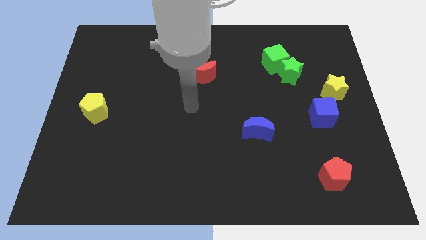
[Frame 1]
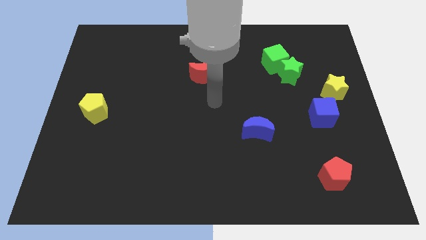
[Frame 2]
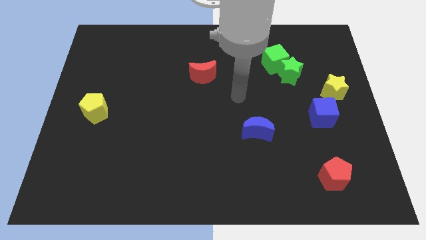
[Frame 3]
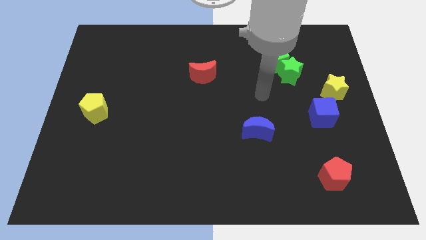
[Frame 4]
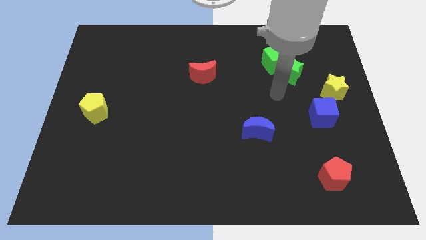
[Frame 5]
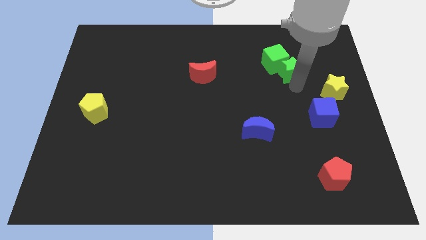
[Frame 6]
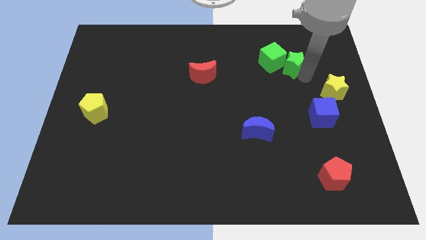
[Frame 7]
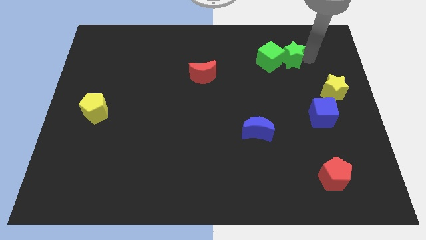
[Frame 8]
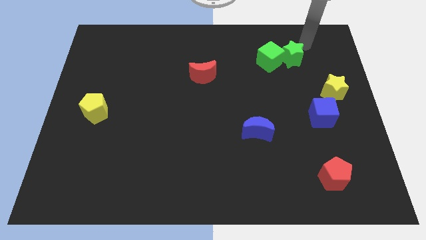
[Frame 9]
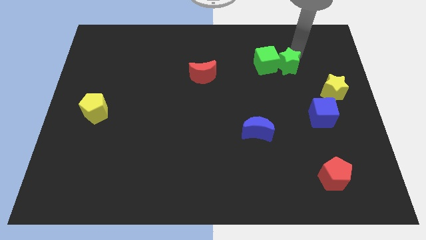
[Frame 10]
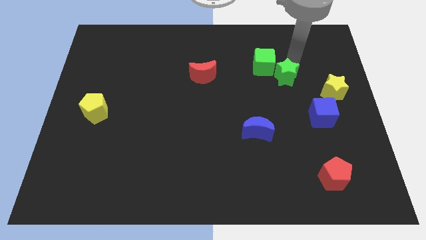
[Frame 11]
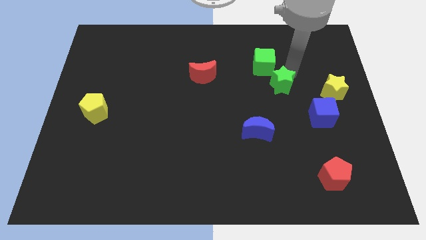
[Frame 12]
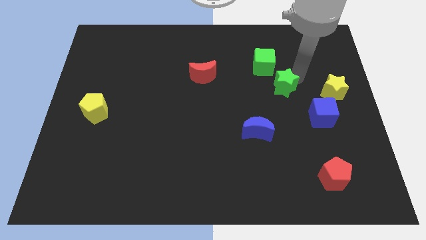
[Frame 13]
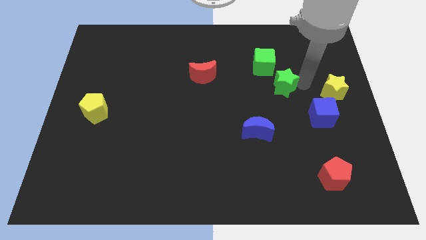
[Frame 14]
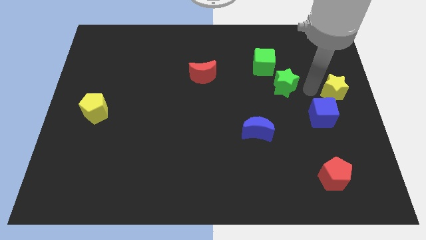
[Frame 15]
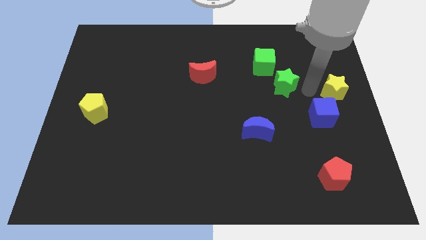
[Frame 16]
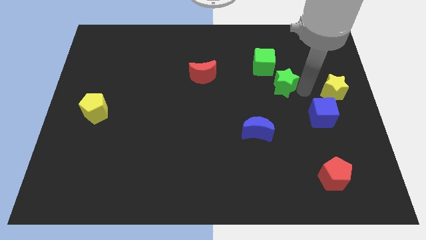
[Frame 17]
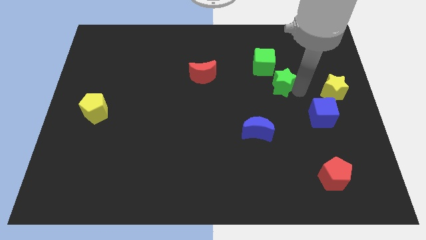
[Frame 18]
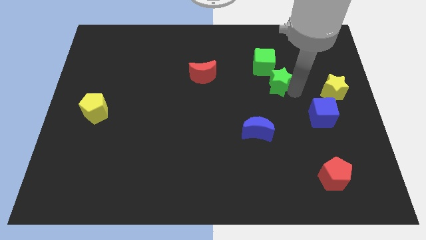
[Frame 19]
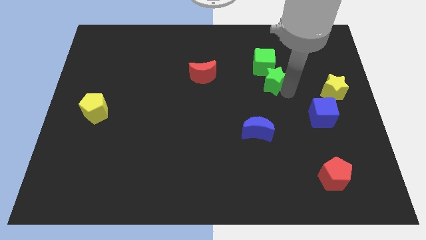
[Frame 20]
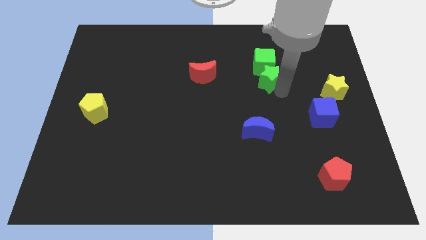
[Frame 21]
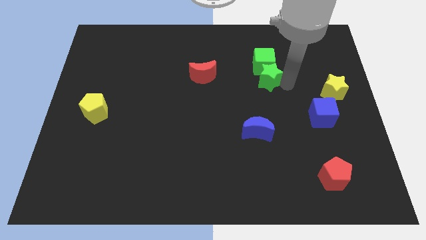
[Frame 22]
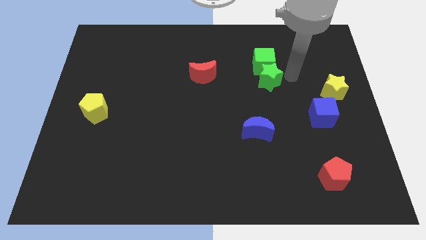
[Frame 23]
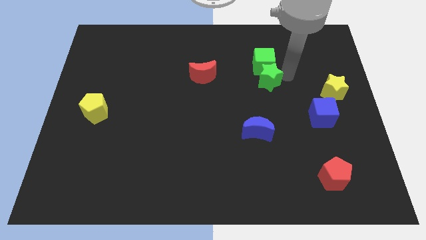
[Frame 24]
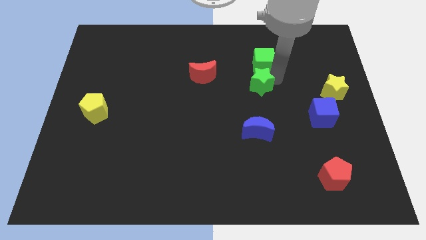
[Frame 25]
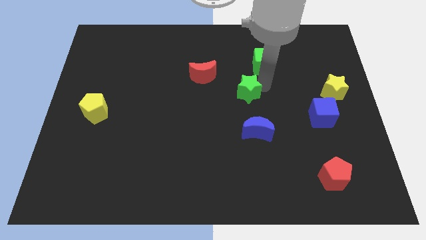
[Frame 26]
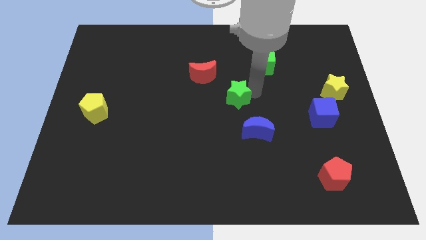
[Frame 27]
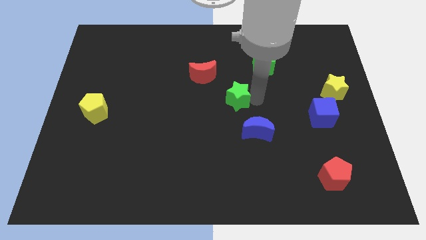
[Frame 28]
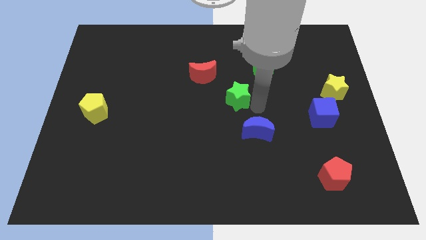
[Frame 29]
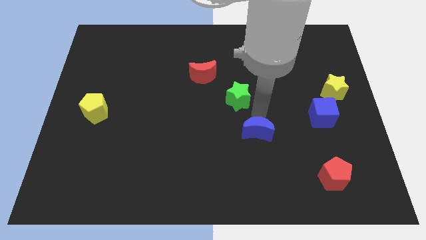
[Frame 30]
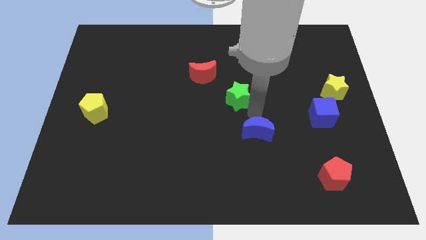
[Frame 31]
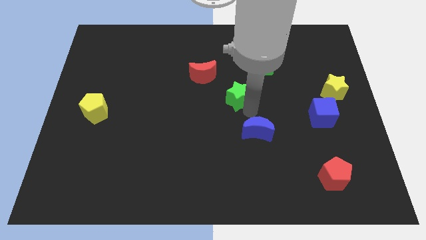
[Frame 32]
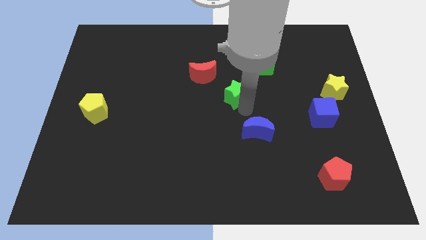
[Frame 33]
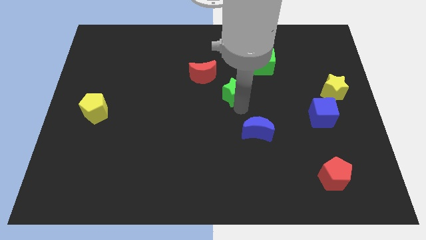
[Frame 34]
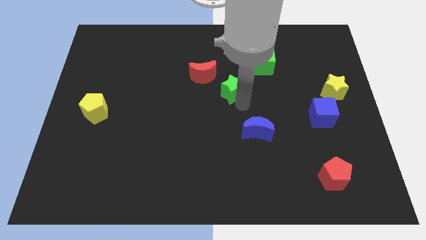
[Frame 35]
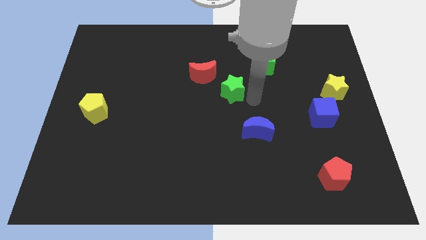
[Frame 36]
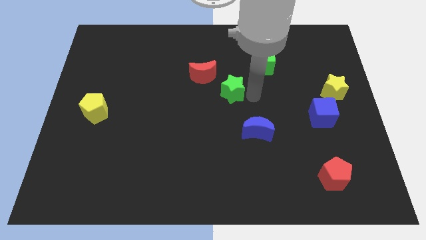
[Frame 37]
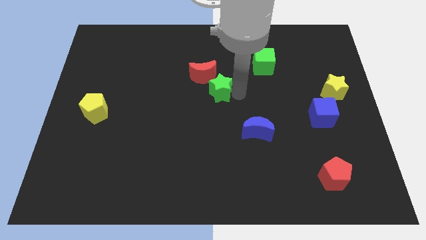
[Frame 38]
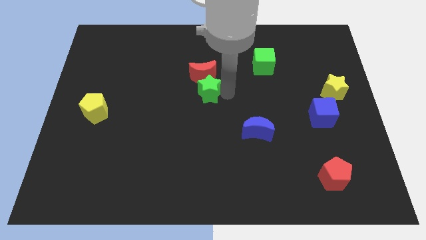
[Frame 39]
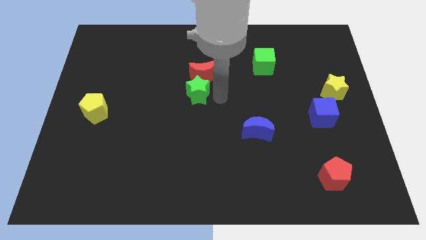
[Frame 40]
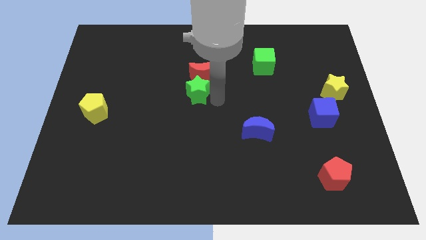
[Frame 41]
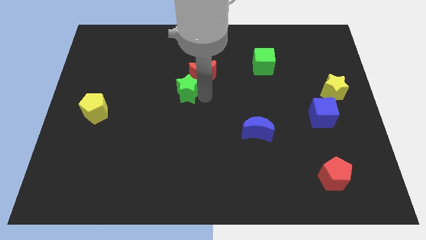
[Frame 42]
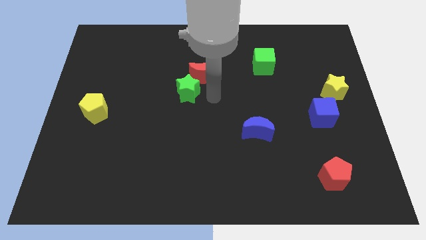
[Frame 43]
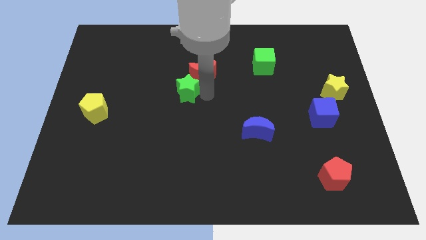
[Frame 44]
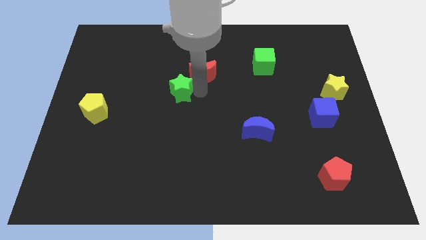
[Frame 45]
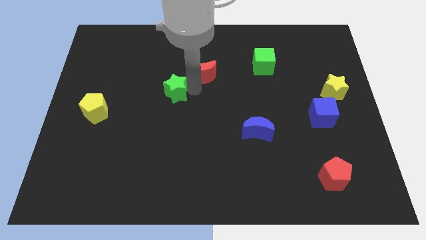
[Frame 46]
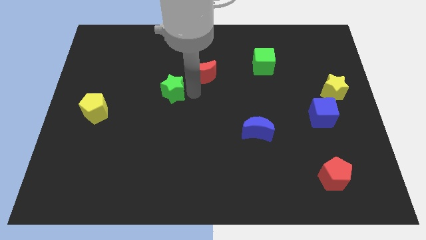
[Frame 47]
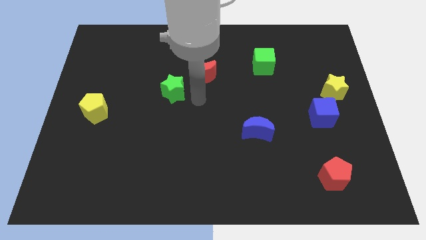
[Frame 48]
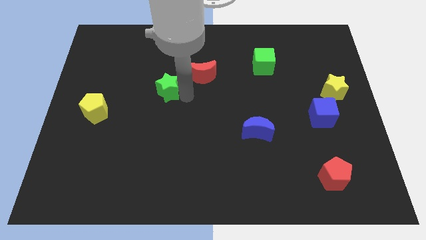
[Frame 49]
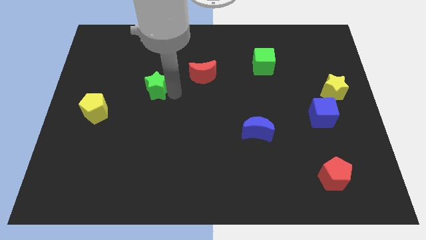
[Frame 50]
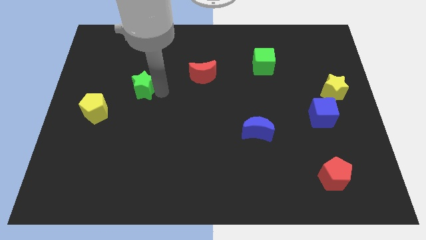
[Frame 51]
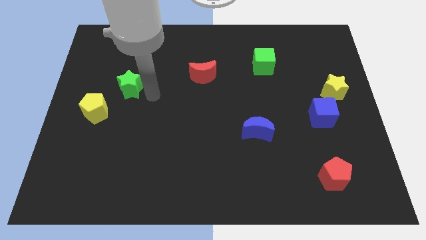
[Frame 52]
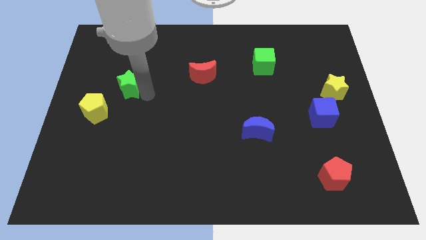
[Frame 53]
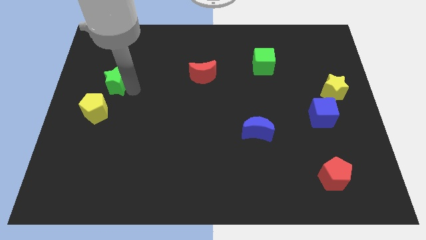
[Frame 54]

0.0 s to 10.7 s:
move the green star to the top of the yellow pentagon

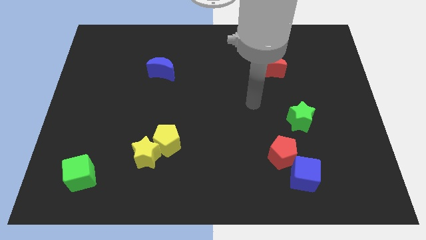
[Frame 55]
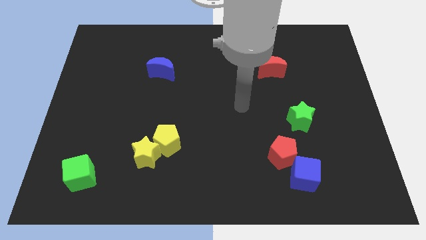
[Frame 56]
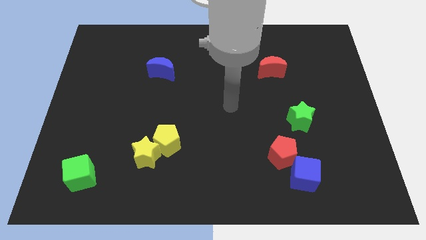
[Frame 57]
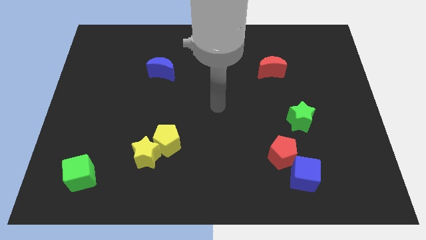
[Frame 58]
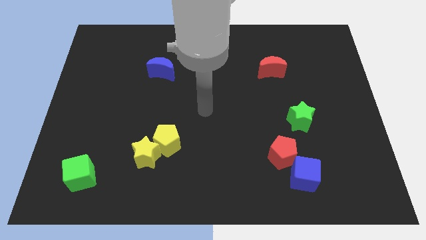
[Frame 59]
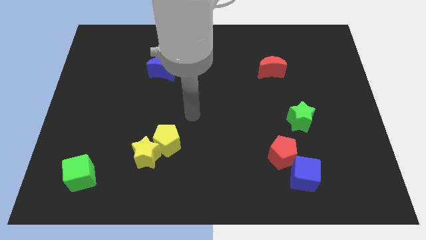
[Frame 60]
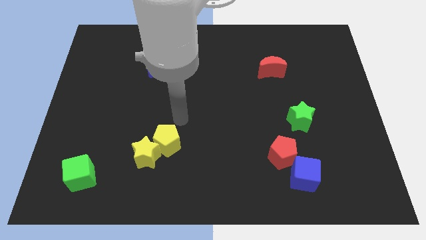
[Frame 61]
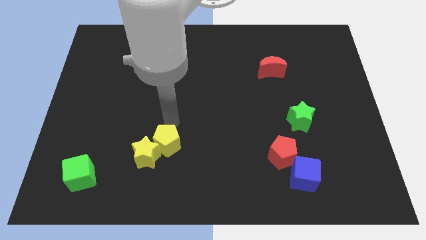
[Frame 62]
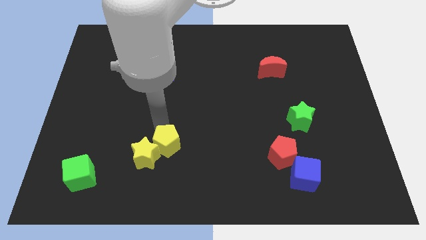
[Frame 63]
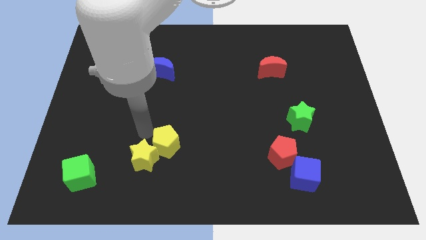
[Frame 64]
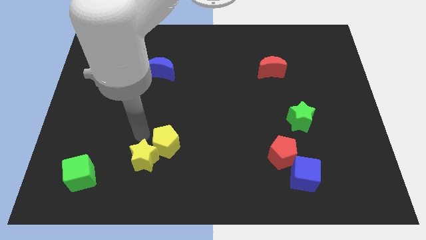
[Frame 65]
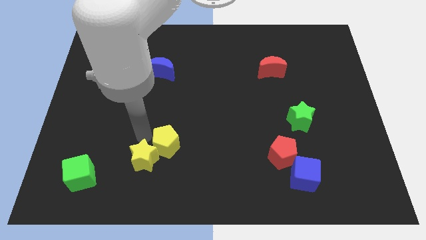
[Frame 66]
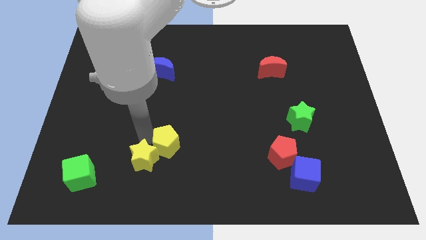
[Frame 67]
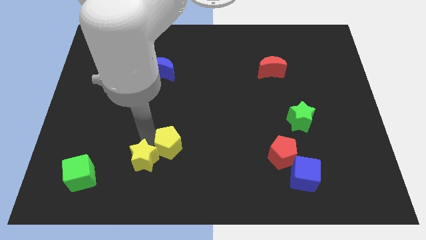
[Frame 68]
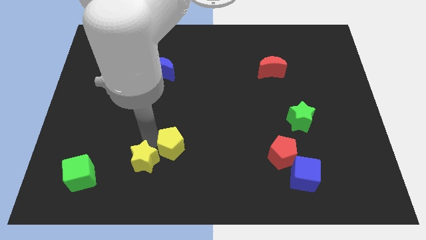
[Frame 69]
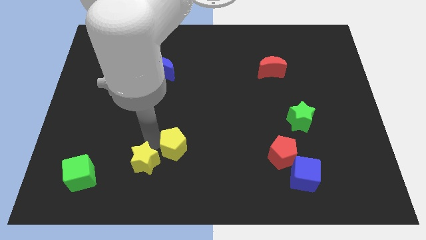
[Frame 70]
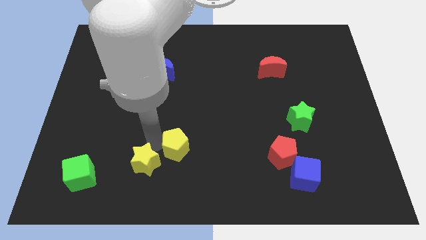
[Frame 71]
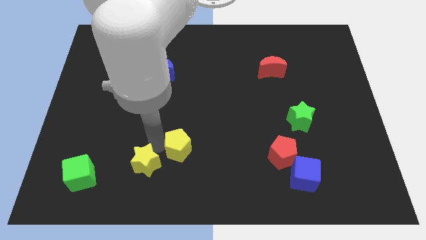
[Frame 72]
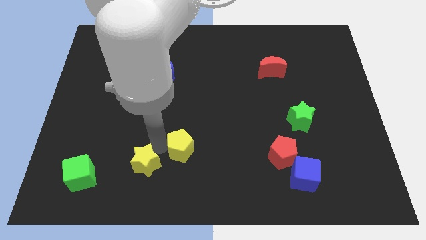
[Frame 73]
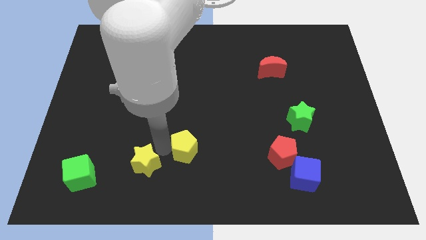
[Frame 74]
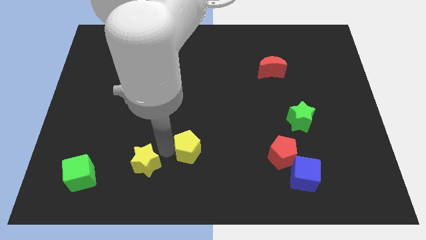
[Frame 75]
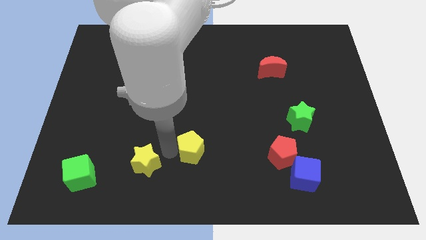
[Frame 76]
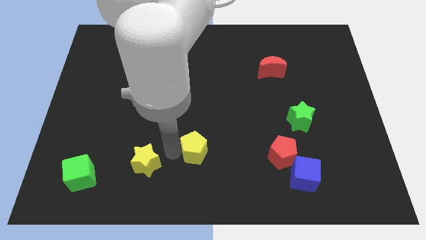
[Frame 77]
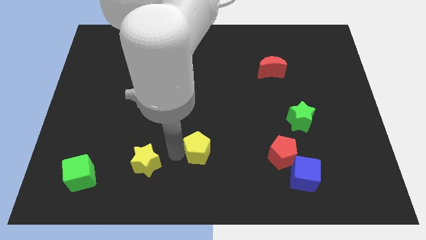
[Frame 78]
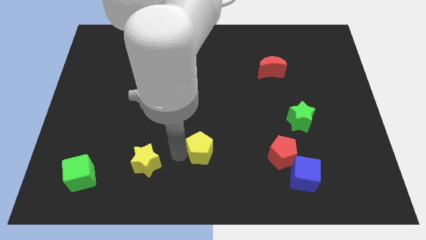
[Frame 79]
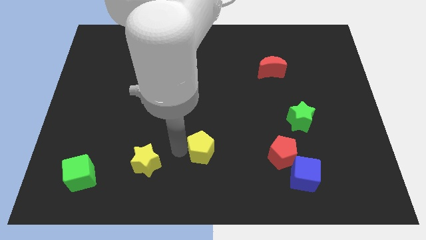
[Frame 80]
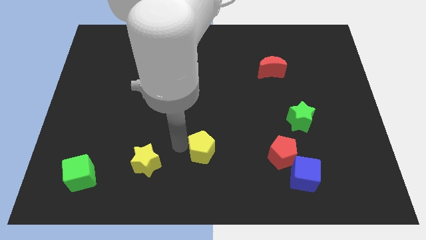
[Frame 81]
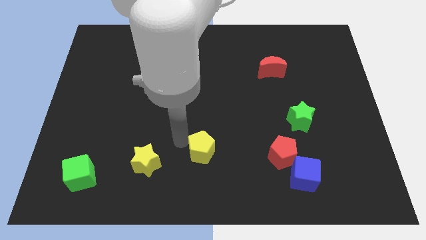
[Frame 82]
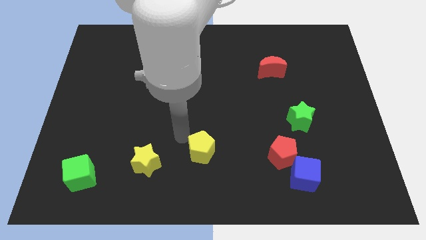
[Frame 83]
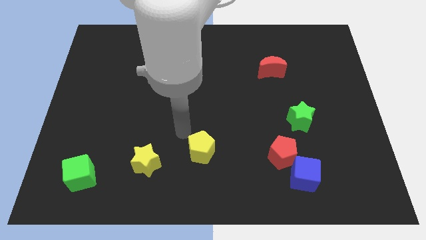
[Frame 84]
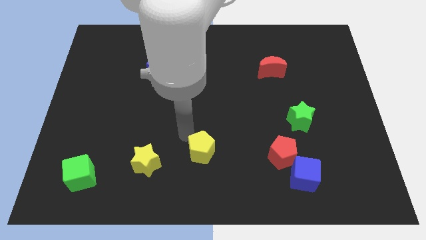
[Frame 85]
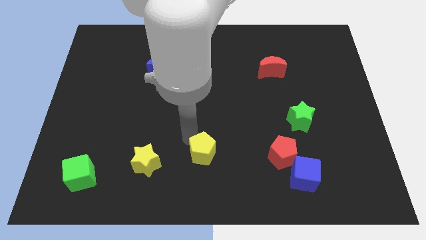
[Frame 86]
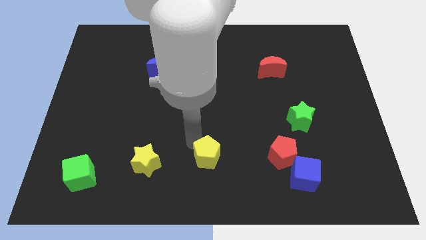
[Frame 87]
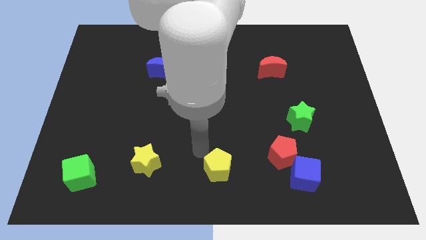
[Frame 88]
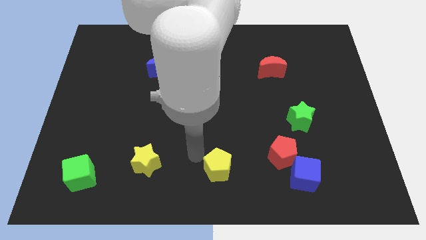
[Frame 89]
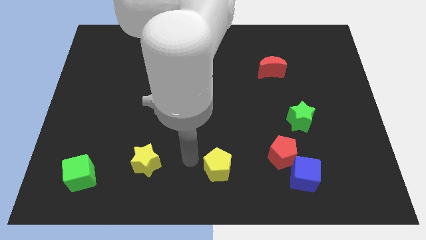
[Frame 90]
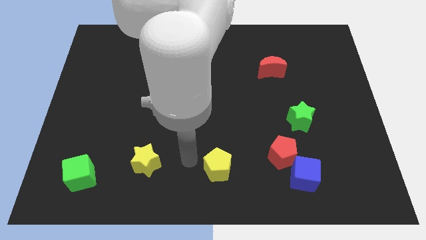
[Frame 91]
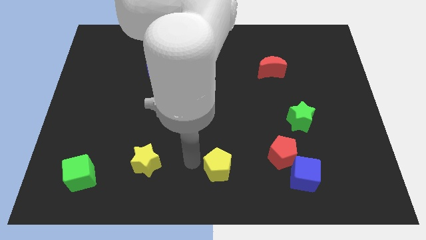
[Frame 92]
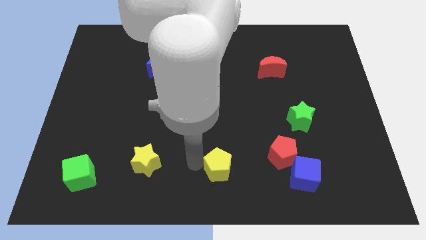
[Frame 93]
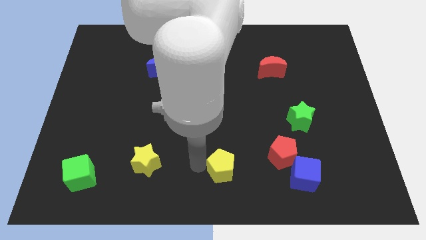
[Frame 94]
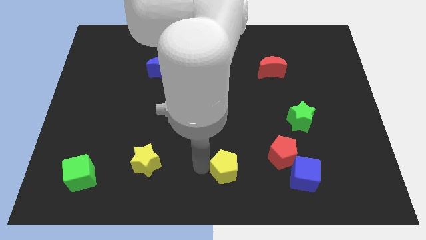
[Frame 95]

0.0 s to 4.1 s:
move the yellow pentagon left of the blue cube
